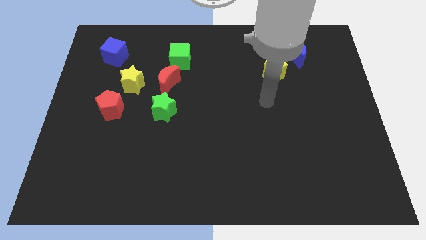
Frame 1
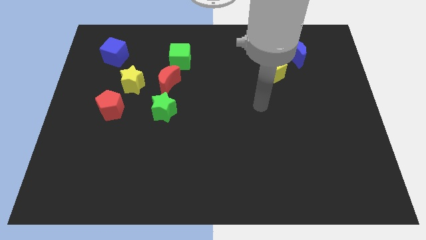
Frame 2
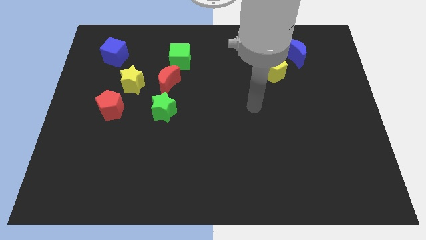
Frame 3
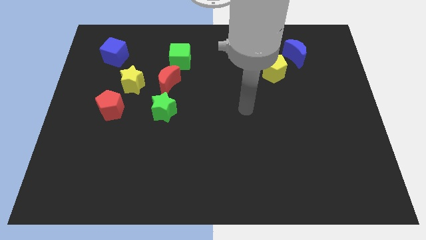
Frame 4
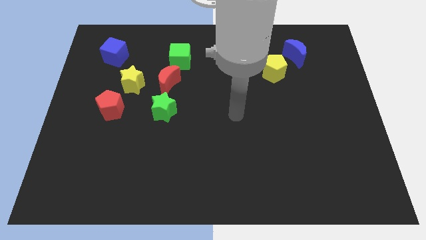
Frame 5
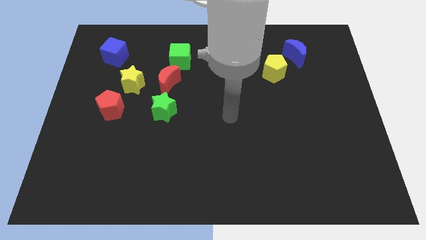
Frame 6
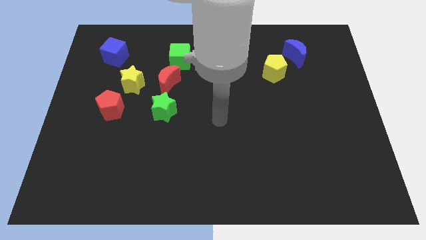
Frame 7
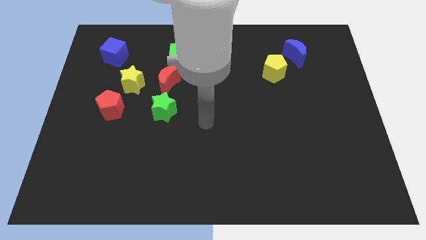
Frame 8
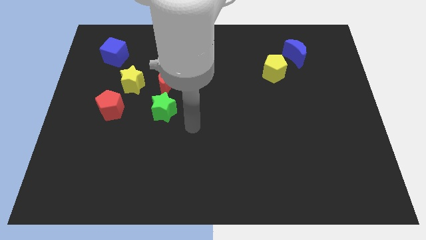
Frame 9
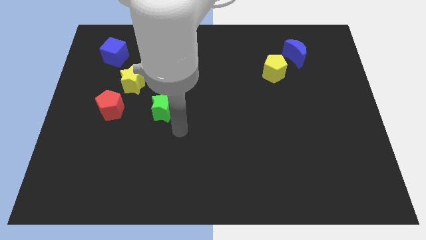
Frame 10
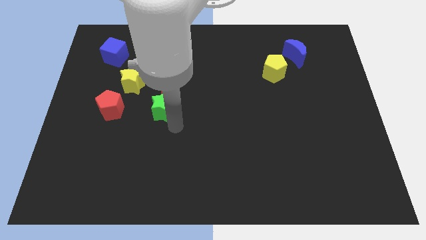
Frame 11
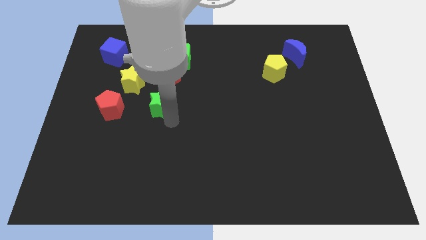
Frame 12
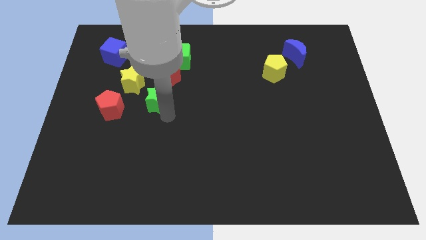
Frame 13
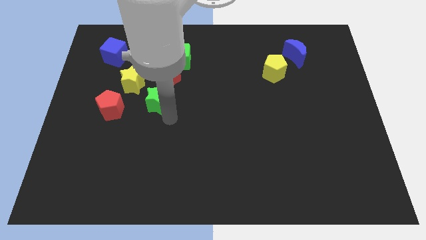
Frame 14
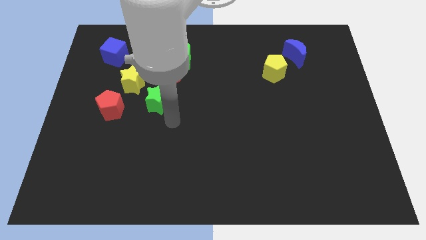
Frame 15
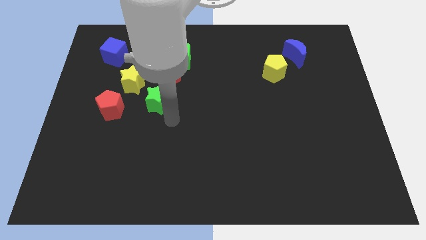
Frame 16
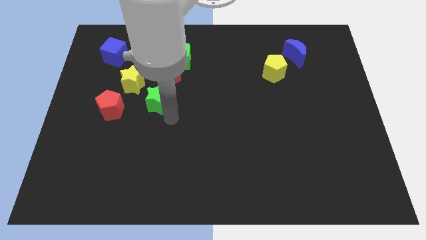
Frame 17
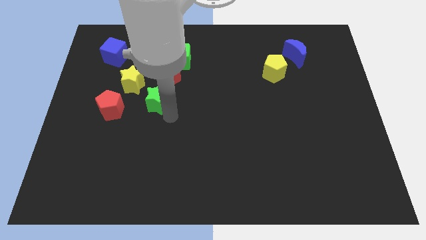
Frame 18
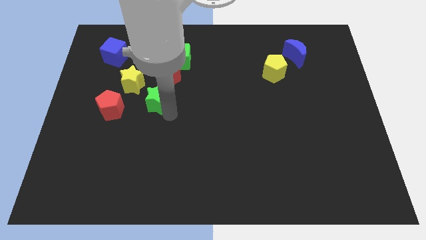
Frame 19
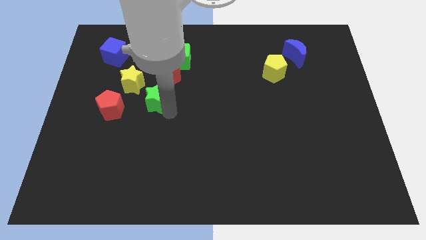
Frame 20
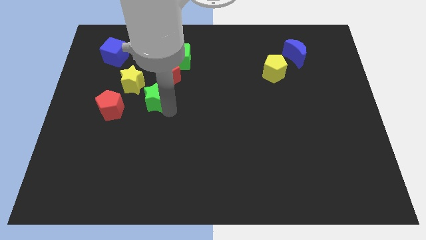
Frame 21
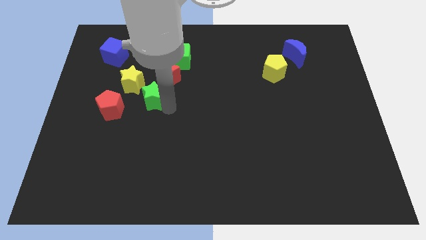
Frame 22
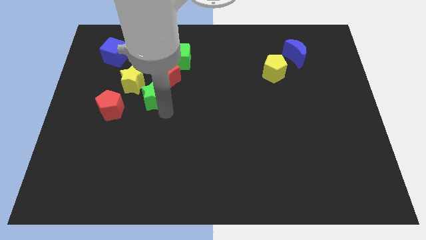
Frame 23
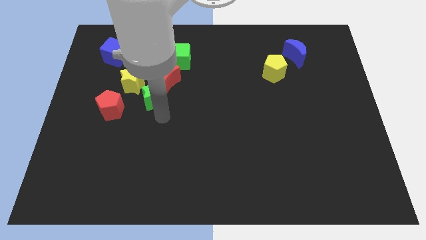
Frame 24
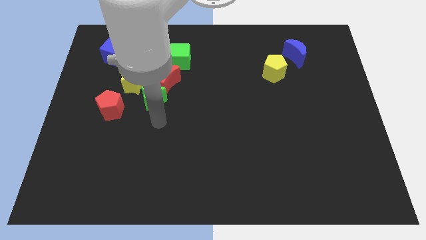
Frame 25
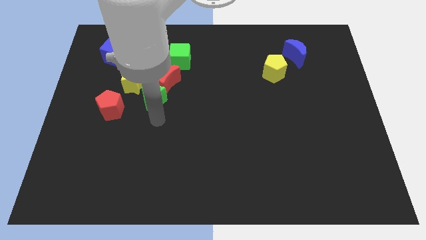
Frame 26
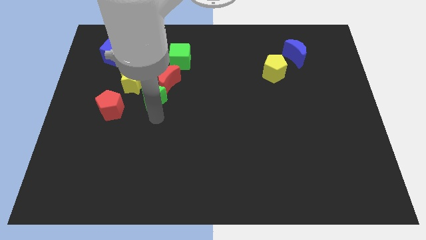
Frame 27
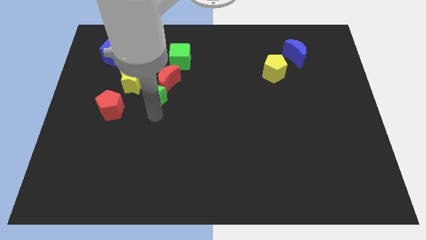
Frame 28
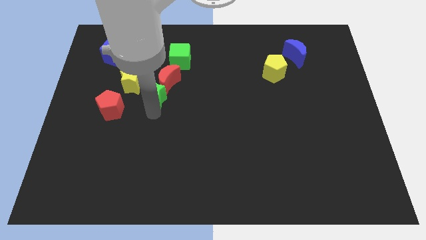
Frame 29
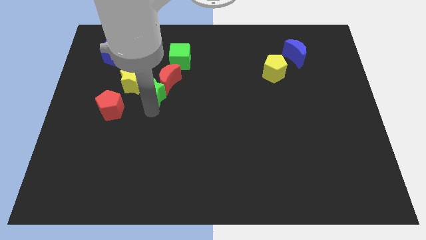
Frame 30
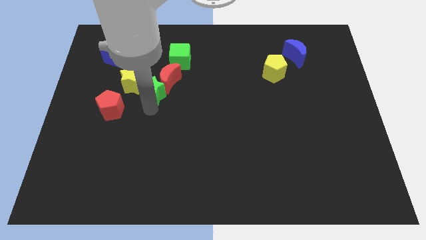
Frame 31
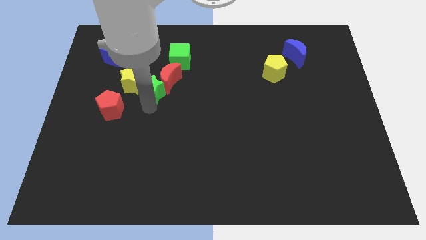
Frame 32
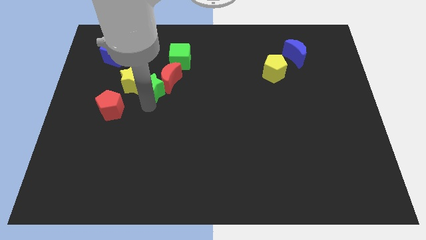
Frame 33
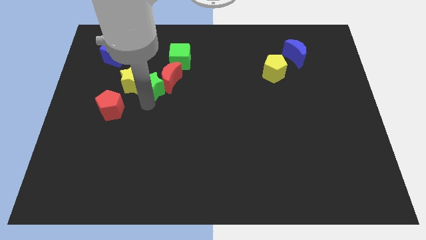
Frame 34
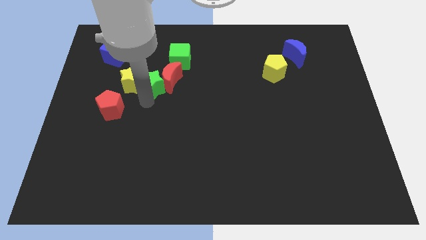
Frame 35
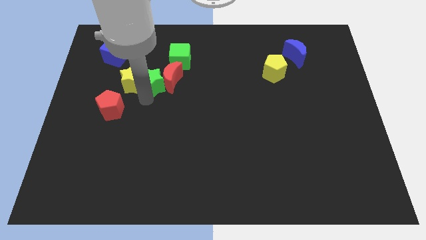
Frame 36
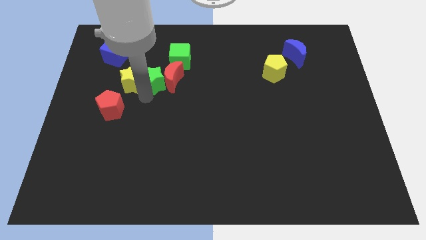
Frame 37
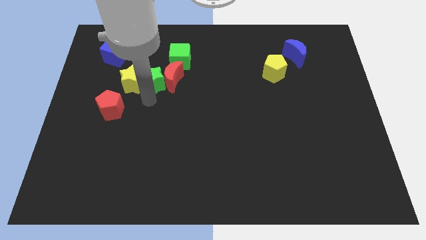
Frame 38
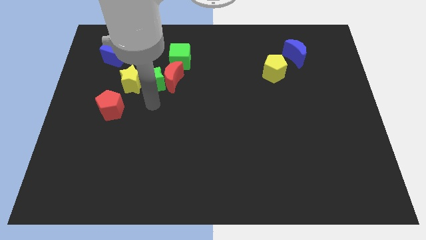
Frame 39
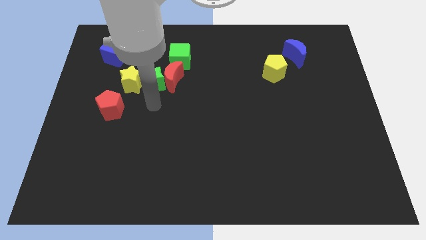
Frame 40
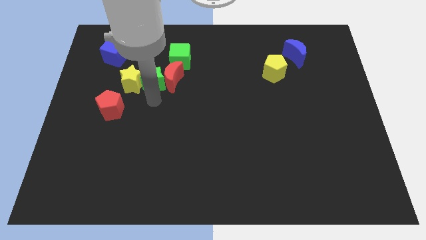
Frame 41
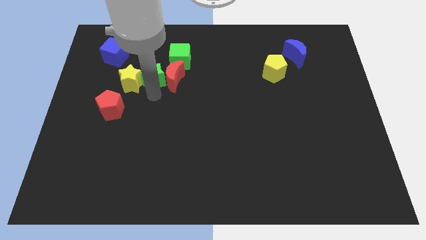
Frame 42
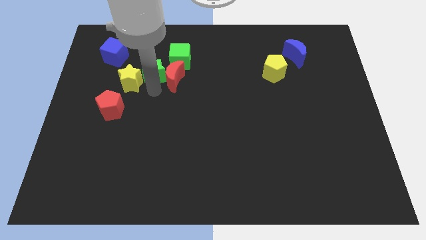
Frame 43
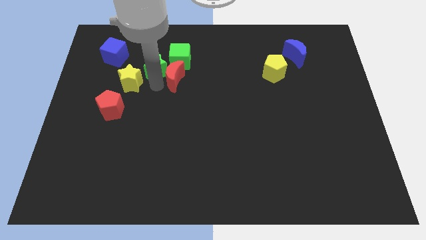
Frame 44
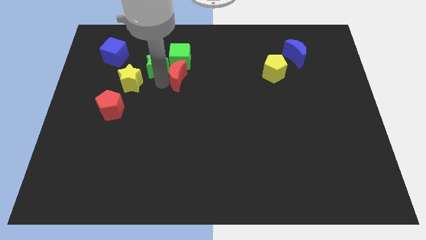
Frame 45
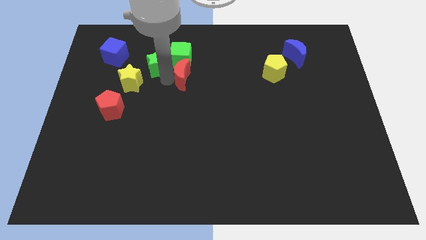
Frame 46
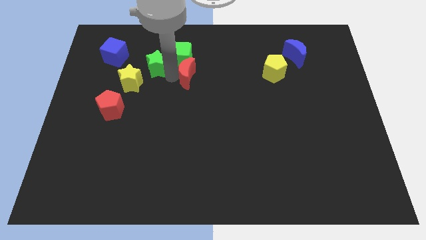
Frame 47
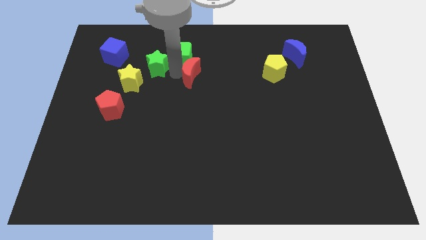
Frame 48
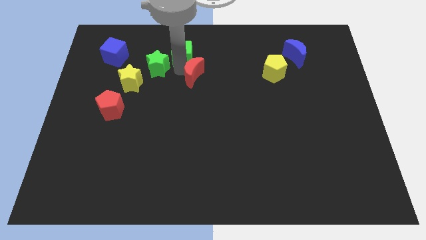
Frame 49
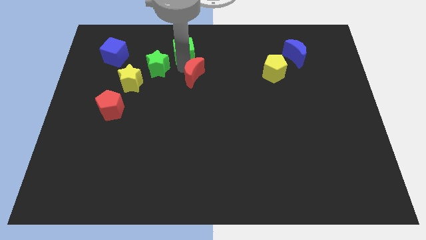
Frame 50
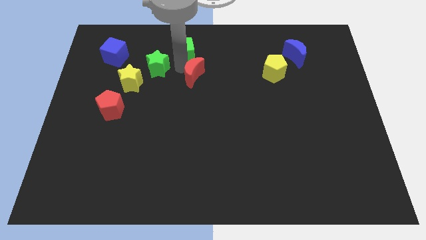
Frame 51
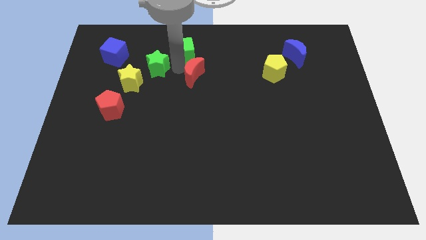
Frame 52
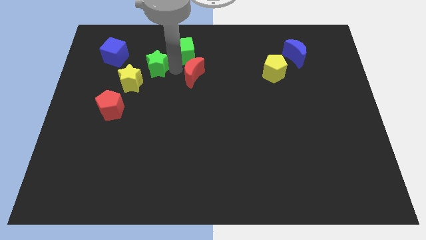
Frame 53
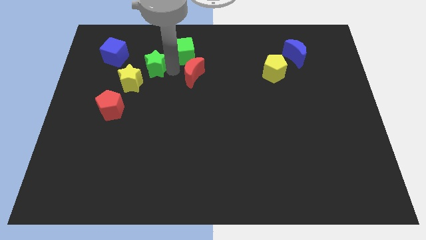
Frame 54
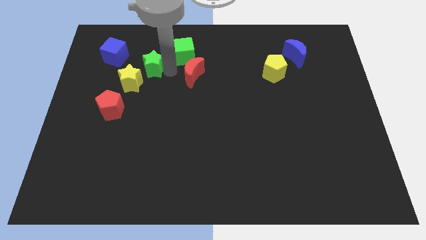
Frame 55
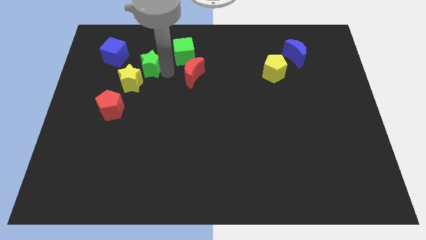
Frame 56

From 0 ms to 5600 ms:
slide the green star to the bottom right of the blue cube

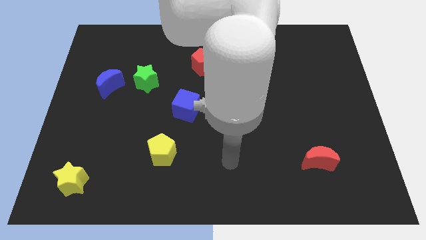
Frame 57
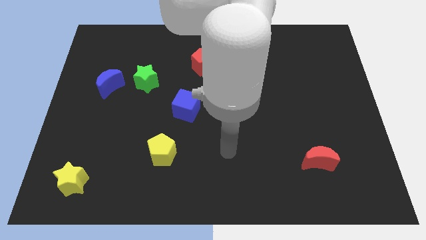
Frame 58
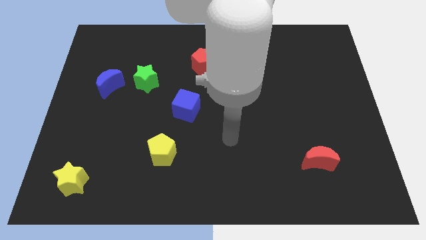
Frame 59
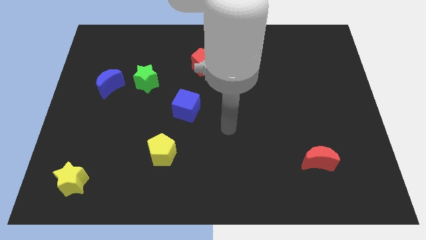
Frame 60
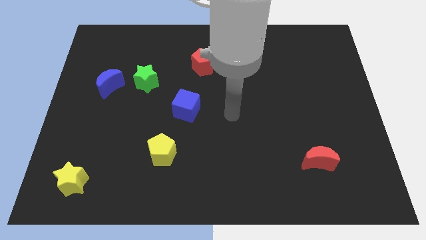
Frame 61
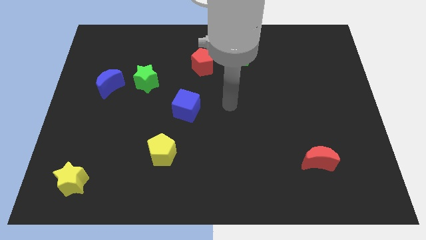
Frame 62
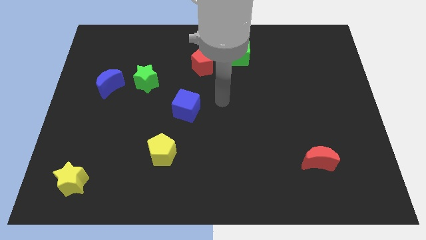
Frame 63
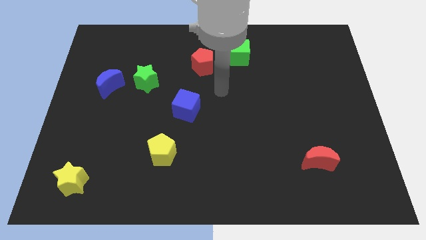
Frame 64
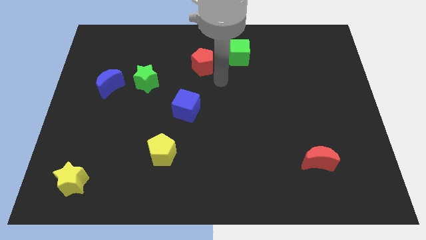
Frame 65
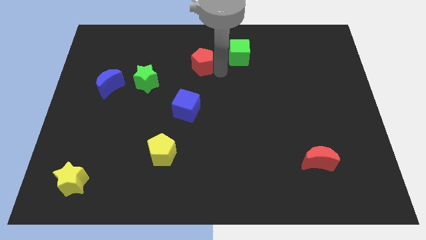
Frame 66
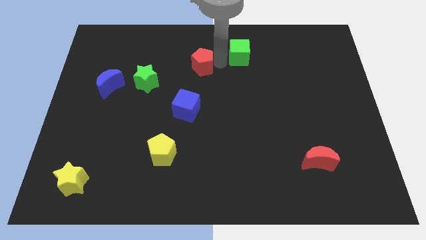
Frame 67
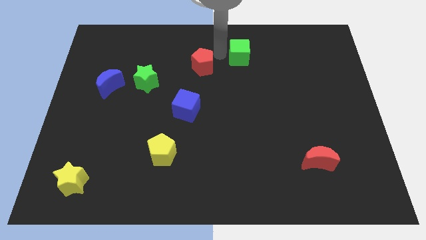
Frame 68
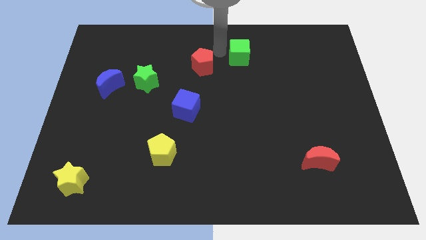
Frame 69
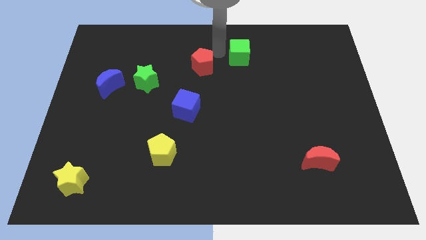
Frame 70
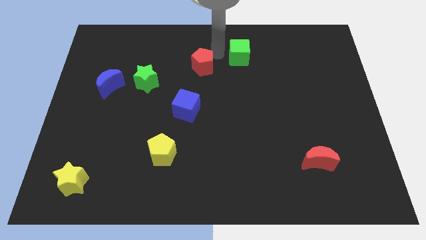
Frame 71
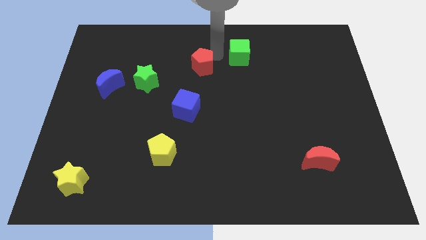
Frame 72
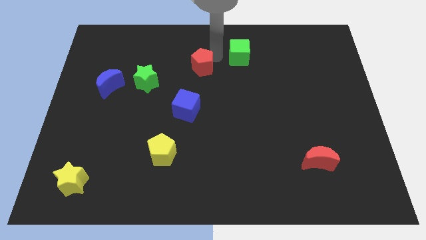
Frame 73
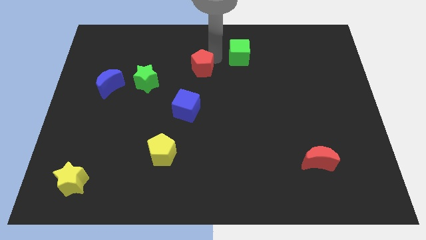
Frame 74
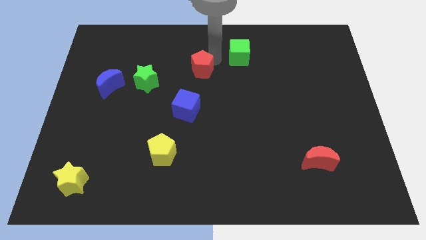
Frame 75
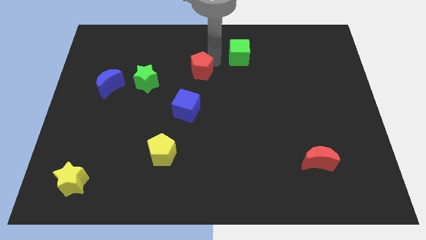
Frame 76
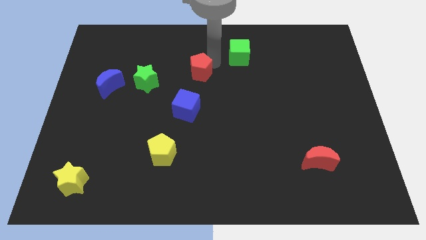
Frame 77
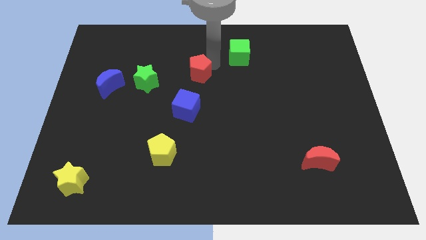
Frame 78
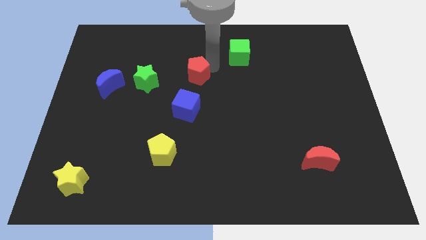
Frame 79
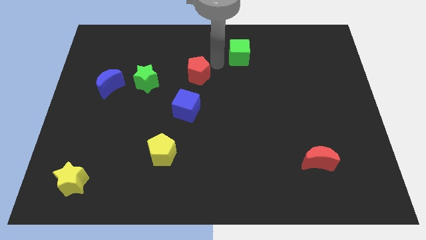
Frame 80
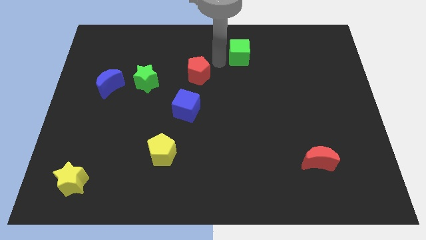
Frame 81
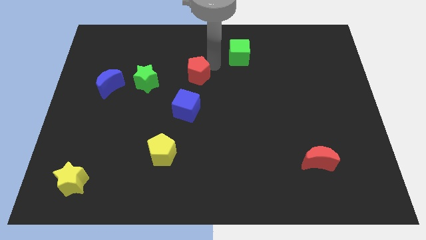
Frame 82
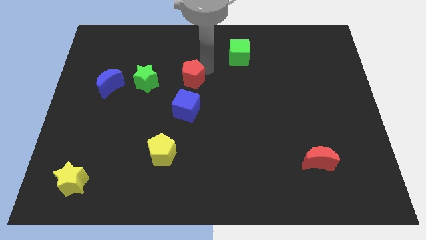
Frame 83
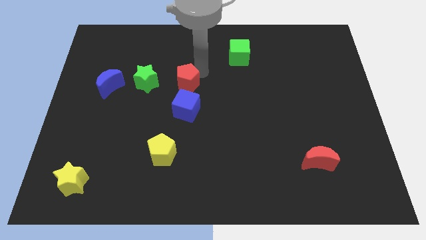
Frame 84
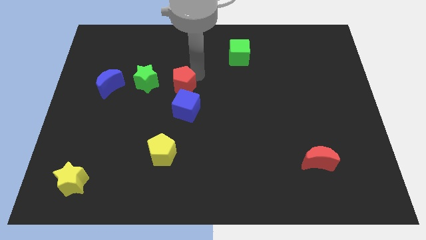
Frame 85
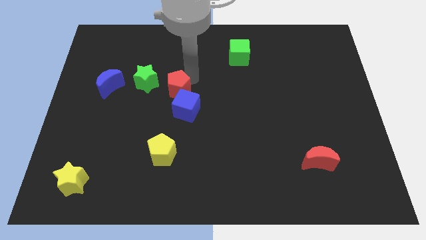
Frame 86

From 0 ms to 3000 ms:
put the red pentagon to the bottom right of the green star
